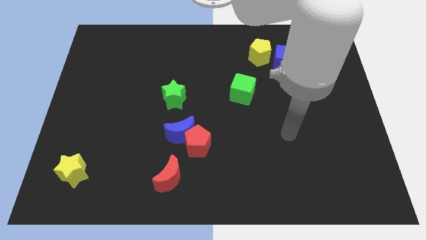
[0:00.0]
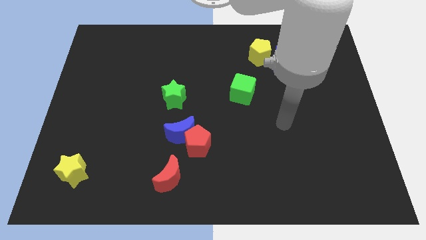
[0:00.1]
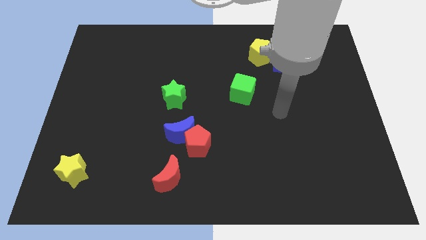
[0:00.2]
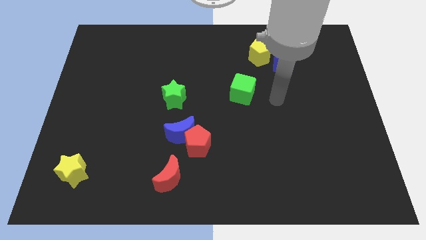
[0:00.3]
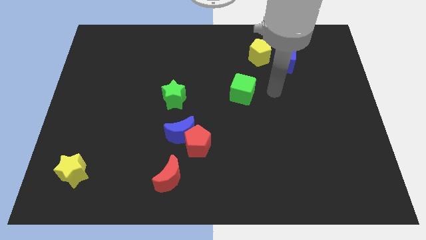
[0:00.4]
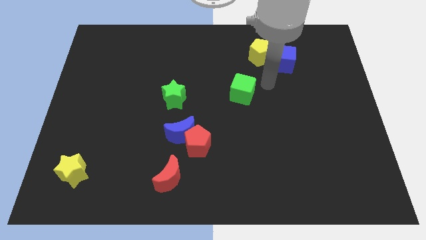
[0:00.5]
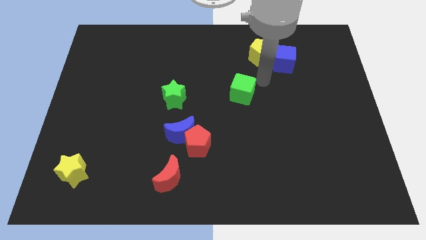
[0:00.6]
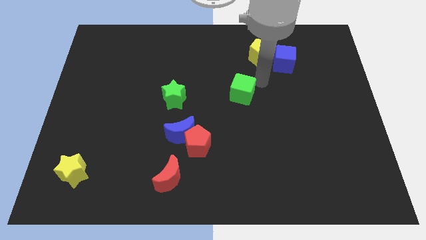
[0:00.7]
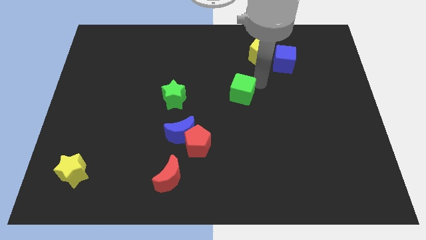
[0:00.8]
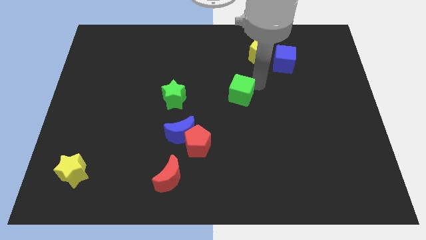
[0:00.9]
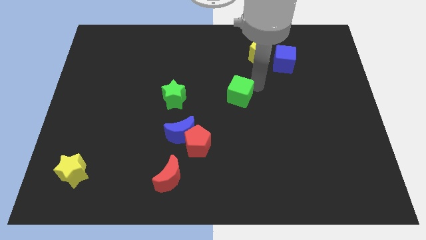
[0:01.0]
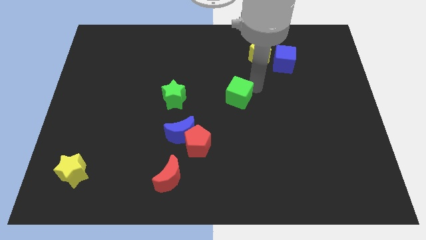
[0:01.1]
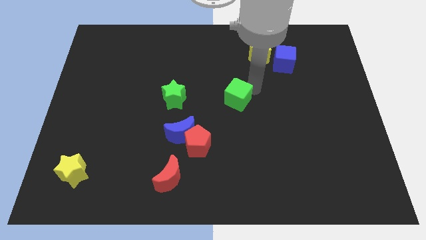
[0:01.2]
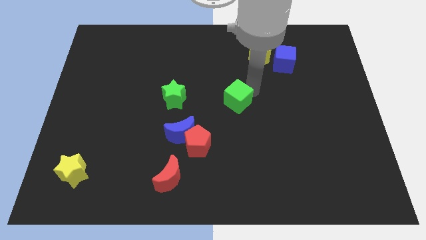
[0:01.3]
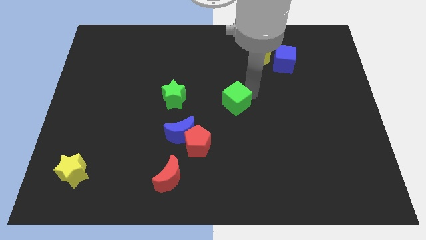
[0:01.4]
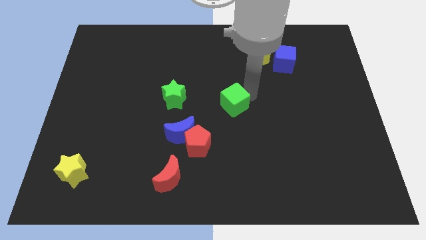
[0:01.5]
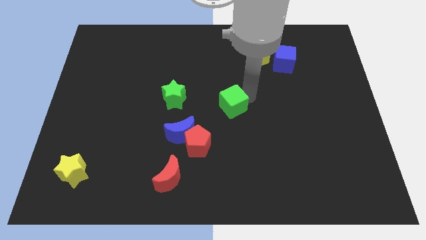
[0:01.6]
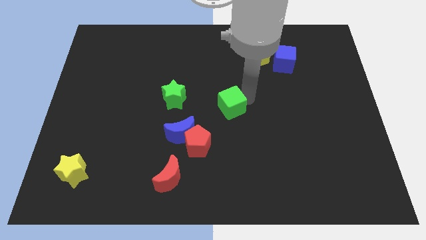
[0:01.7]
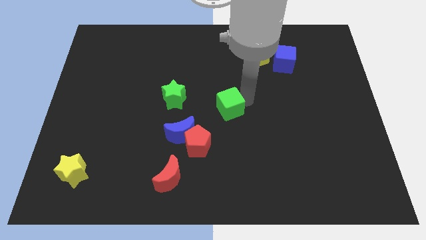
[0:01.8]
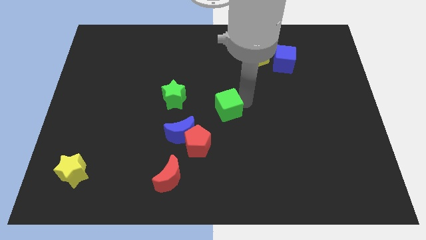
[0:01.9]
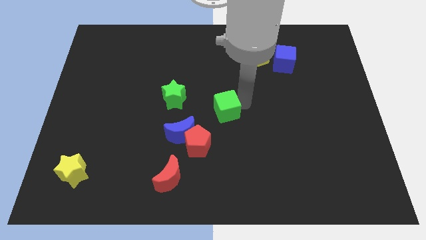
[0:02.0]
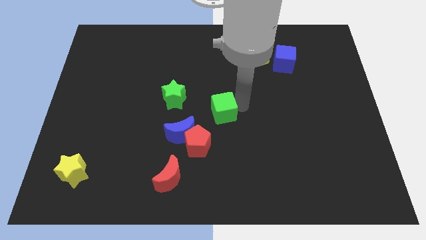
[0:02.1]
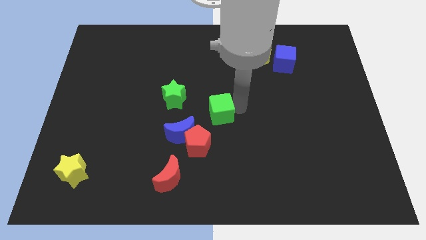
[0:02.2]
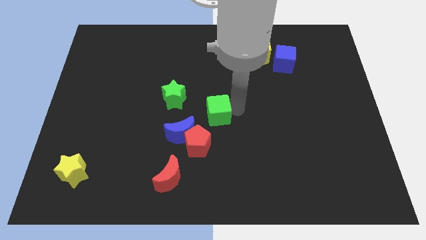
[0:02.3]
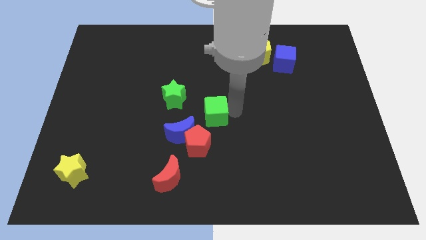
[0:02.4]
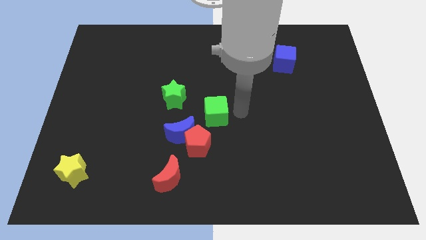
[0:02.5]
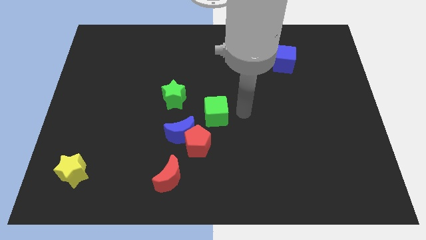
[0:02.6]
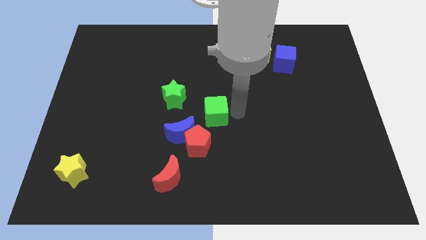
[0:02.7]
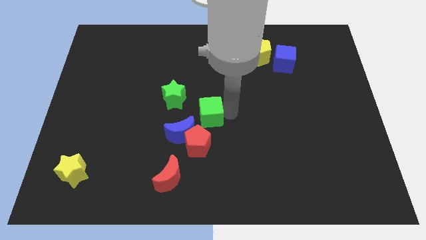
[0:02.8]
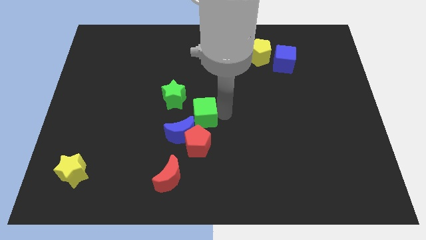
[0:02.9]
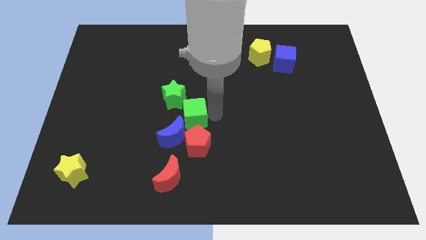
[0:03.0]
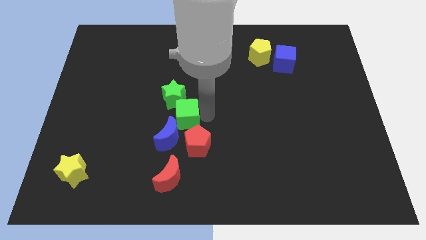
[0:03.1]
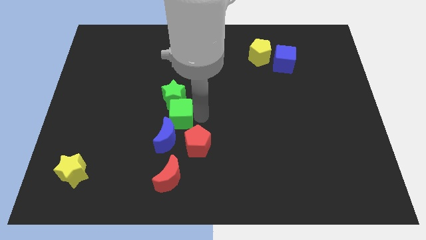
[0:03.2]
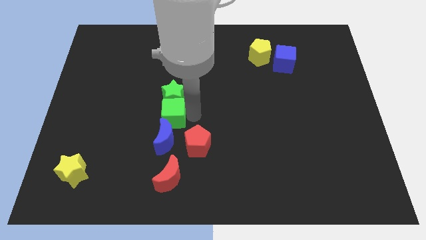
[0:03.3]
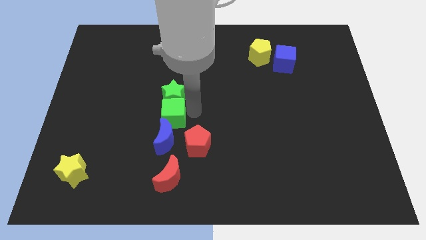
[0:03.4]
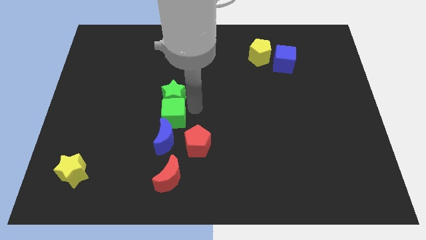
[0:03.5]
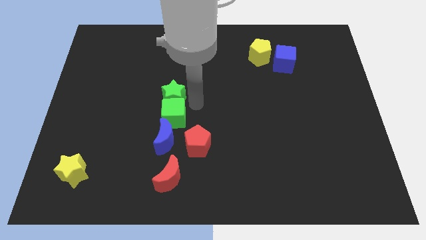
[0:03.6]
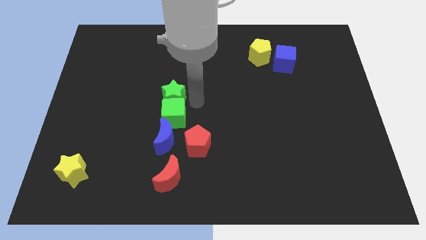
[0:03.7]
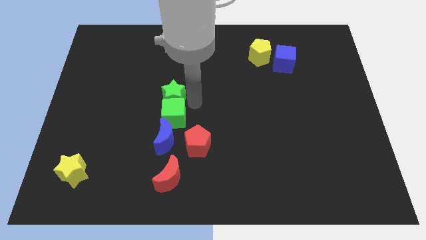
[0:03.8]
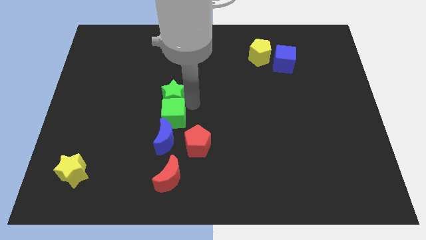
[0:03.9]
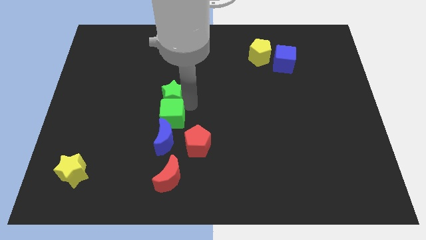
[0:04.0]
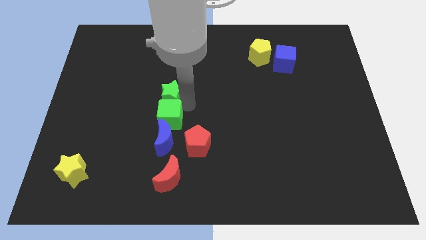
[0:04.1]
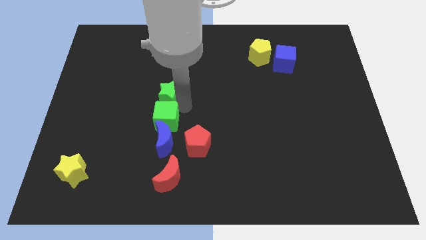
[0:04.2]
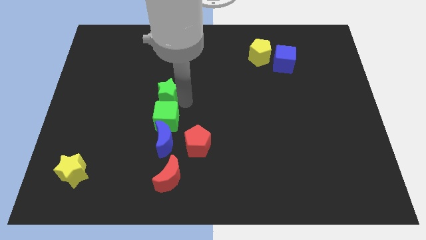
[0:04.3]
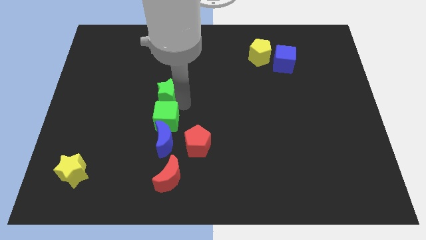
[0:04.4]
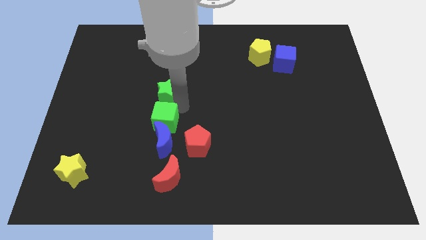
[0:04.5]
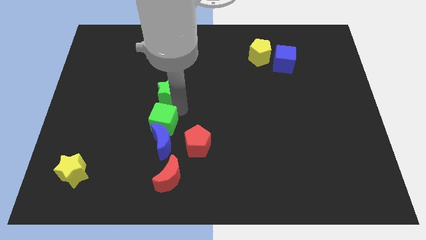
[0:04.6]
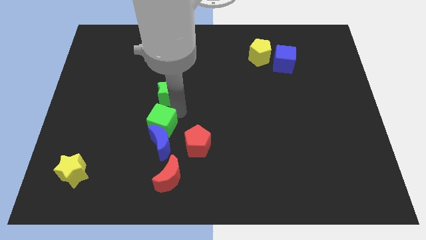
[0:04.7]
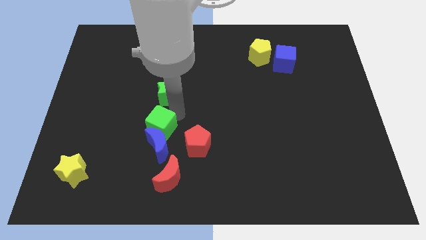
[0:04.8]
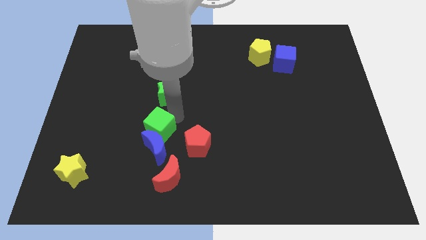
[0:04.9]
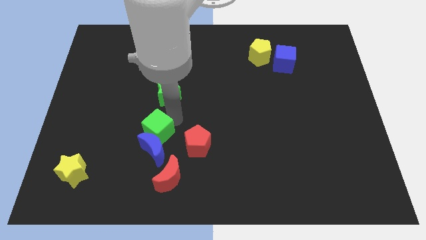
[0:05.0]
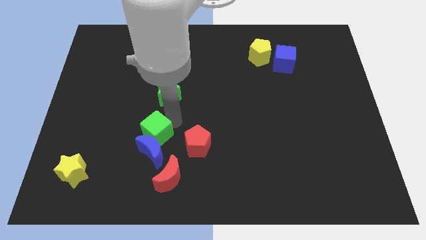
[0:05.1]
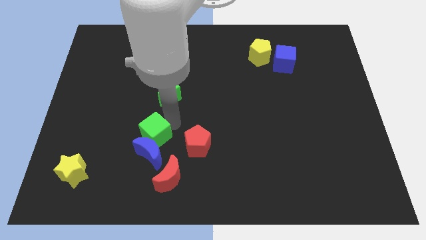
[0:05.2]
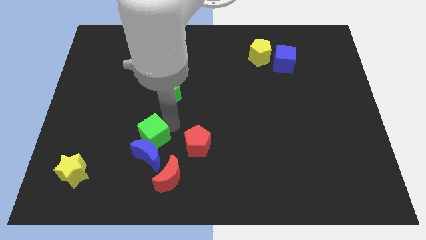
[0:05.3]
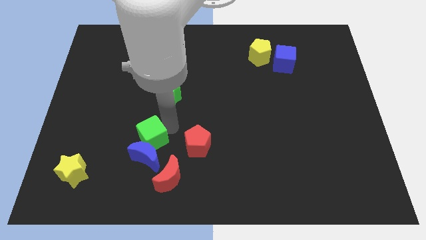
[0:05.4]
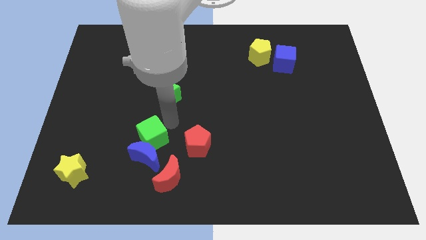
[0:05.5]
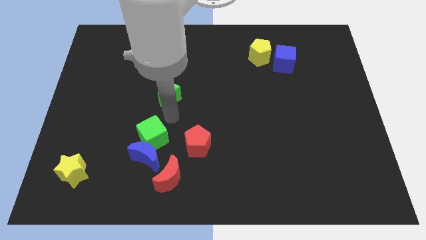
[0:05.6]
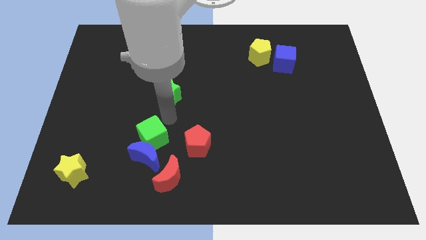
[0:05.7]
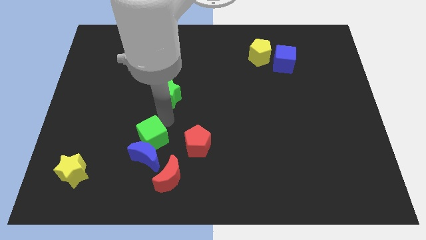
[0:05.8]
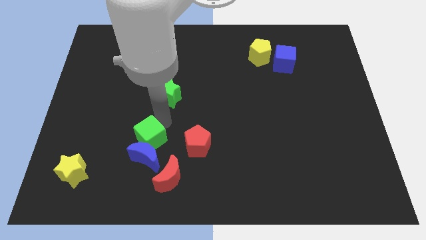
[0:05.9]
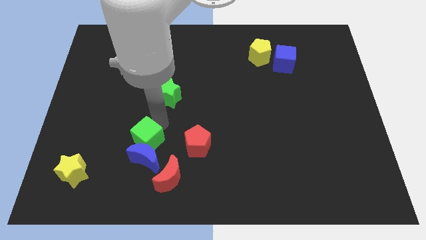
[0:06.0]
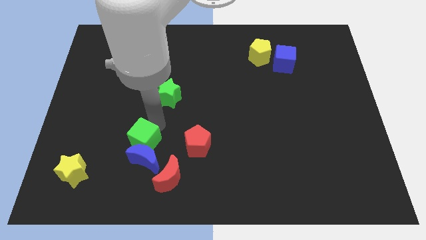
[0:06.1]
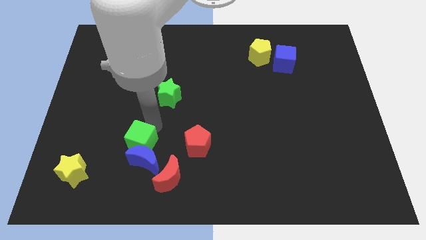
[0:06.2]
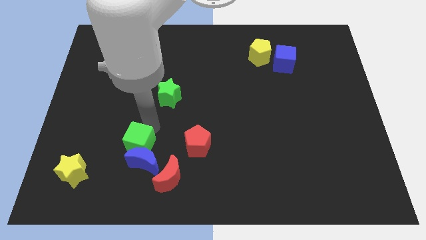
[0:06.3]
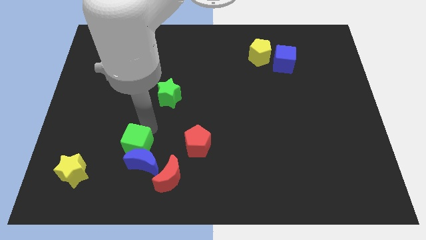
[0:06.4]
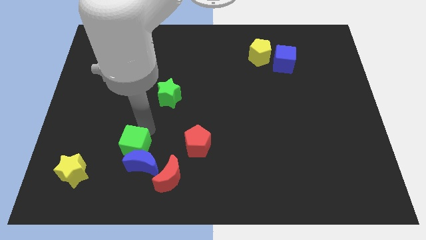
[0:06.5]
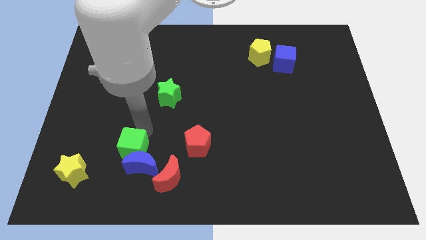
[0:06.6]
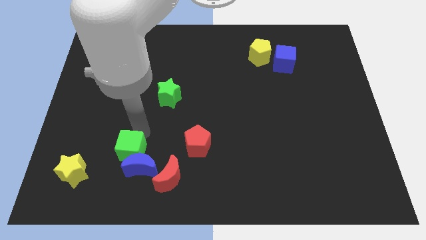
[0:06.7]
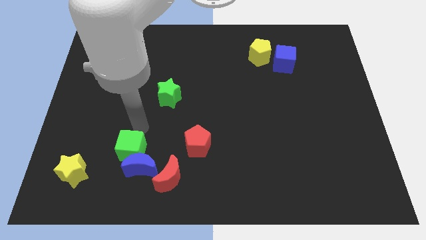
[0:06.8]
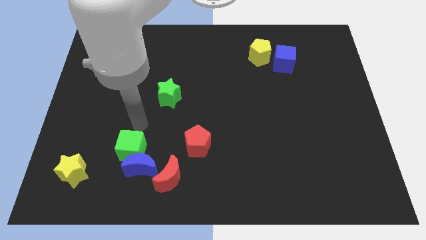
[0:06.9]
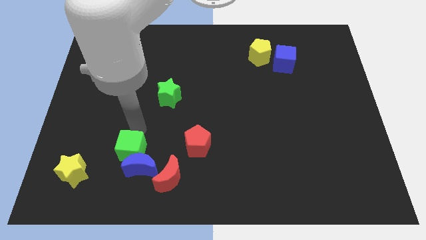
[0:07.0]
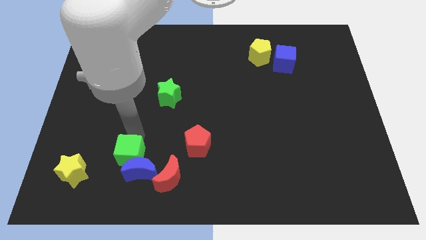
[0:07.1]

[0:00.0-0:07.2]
slide the green cube just right of the yellow star

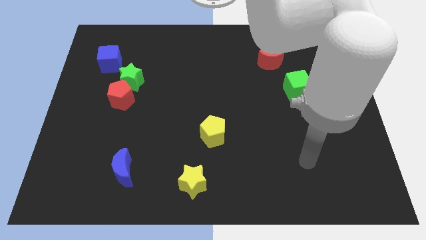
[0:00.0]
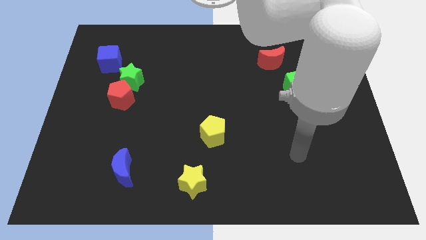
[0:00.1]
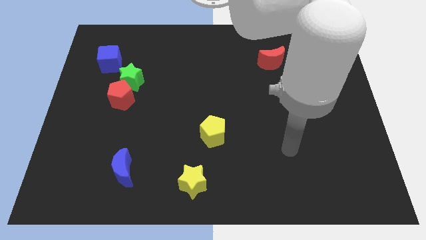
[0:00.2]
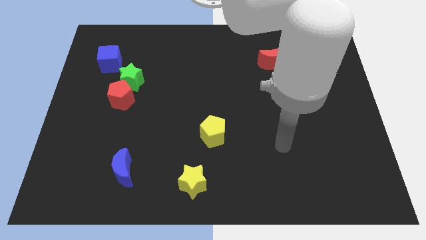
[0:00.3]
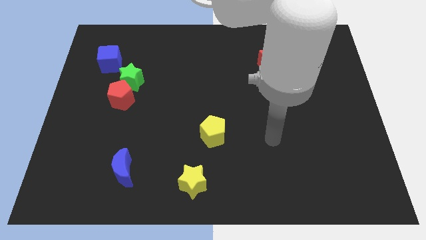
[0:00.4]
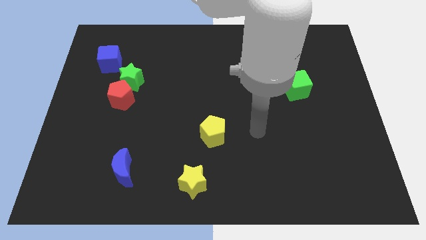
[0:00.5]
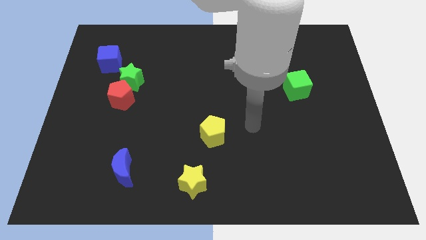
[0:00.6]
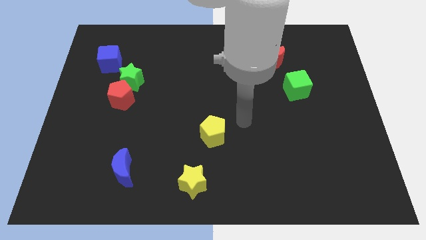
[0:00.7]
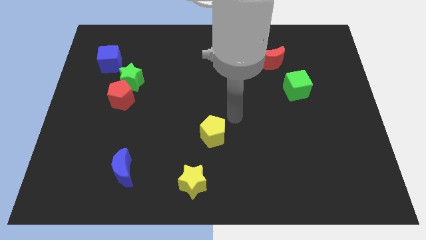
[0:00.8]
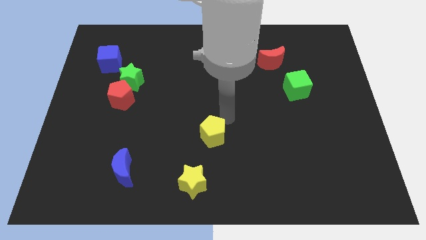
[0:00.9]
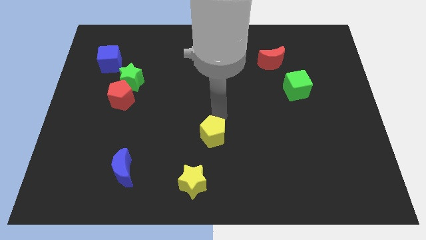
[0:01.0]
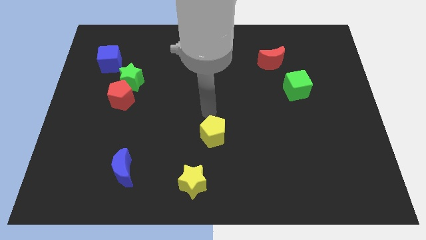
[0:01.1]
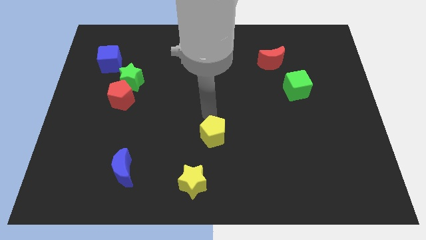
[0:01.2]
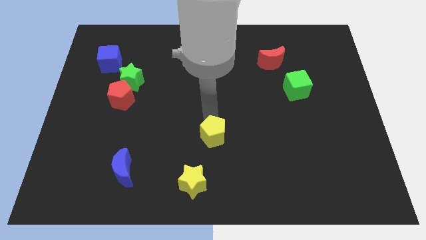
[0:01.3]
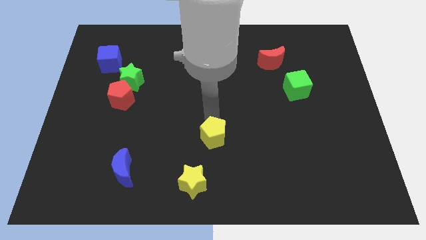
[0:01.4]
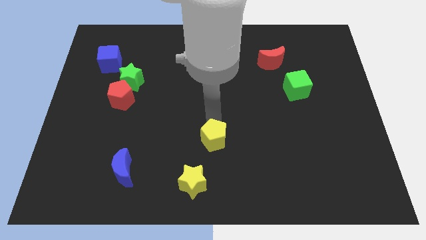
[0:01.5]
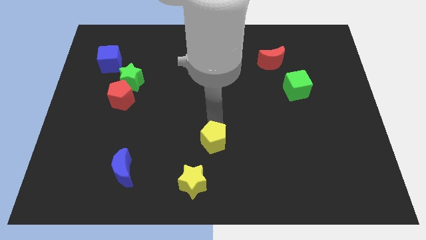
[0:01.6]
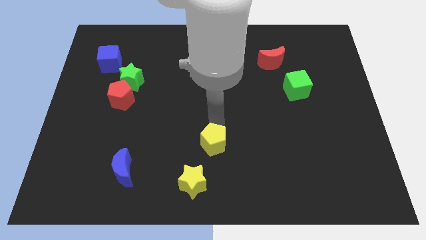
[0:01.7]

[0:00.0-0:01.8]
put the yellow pentagon diagonally up and to the right of the yellow star
